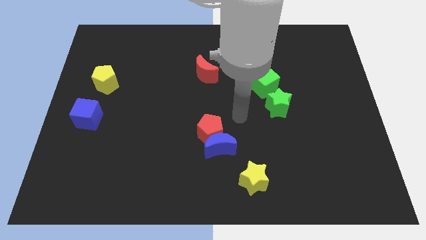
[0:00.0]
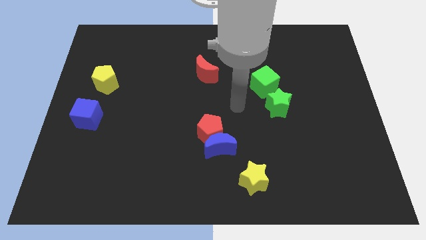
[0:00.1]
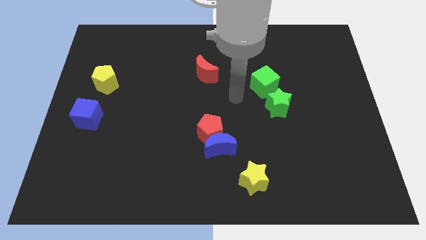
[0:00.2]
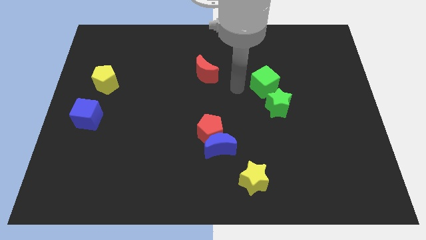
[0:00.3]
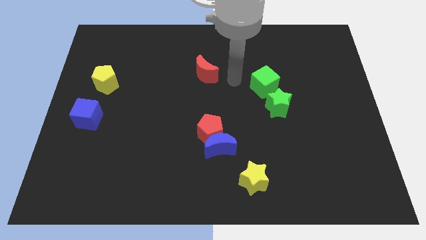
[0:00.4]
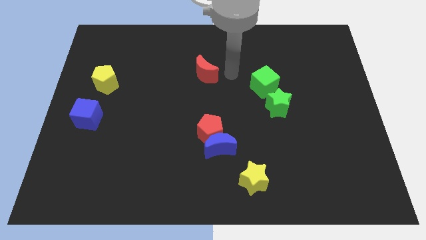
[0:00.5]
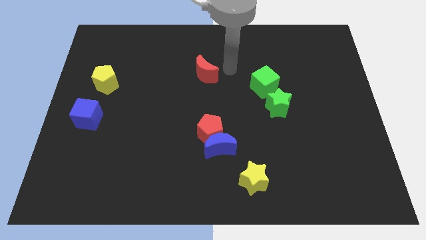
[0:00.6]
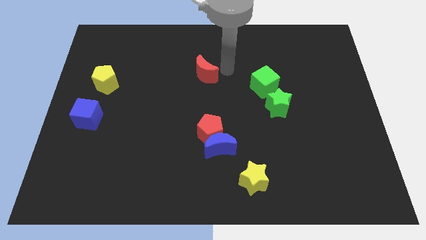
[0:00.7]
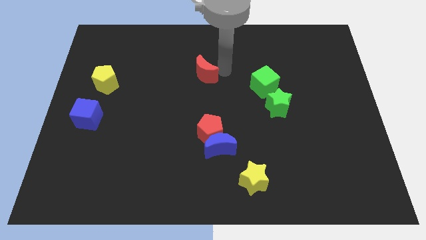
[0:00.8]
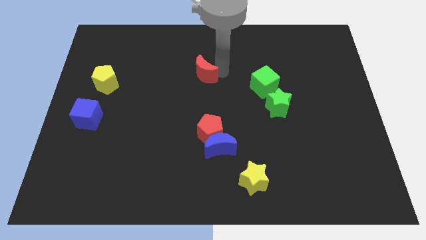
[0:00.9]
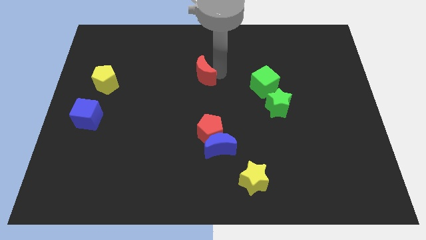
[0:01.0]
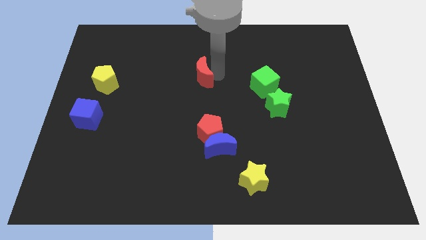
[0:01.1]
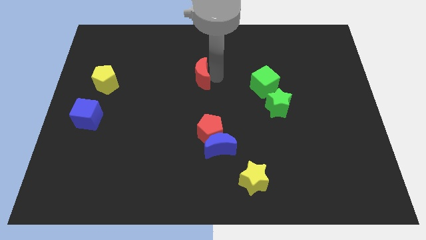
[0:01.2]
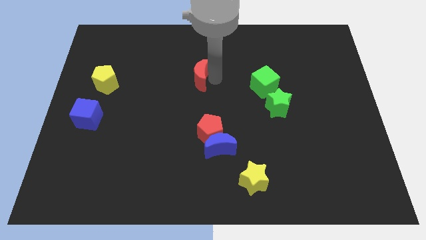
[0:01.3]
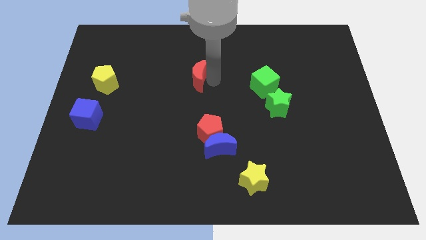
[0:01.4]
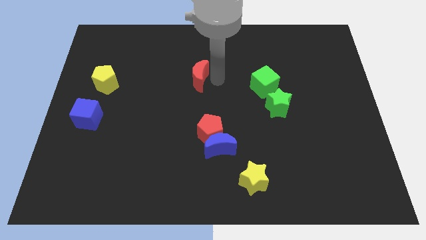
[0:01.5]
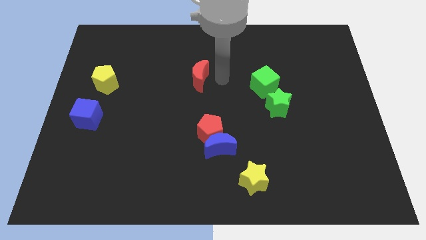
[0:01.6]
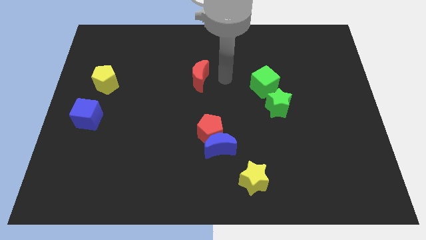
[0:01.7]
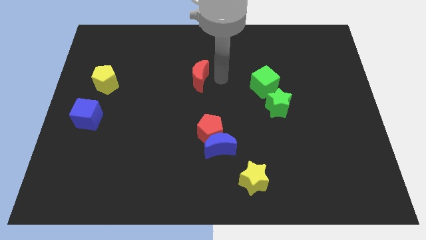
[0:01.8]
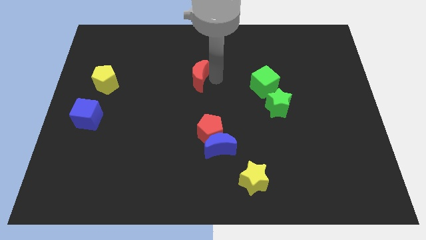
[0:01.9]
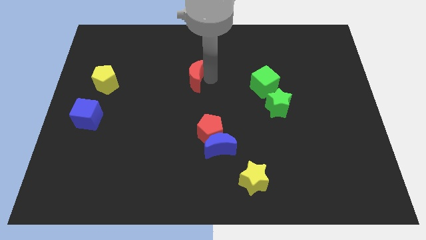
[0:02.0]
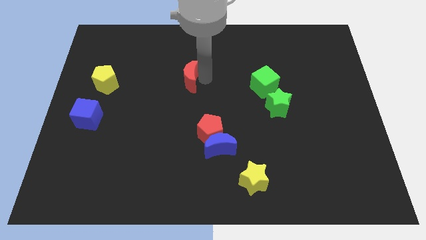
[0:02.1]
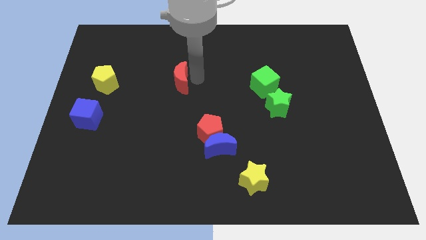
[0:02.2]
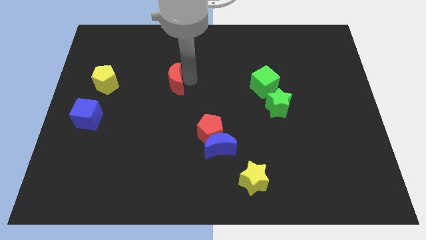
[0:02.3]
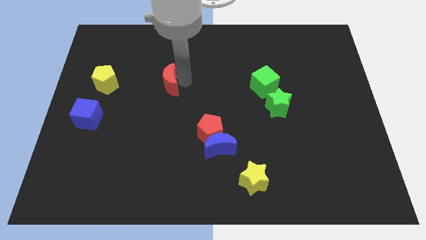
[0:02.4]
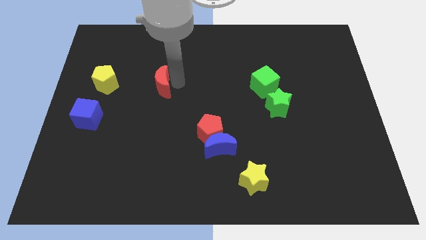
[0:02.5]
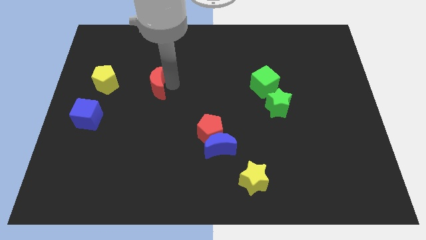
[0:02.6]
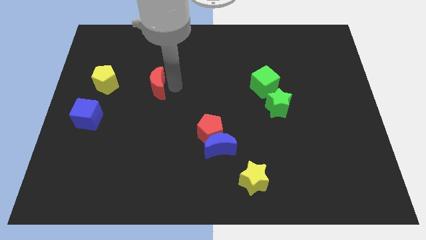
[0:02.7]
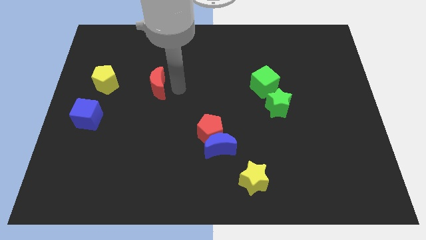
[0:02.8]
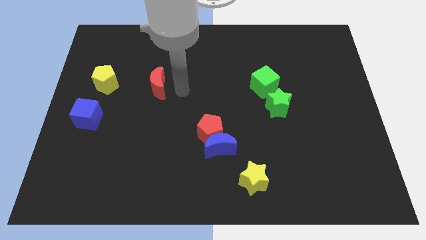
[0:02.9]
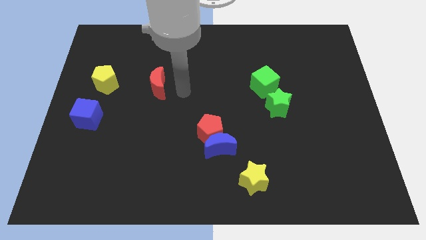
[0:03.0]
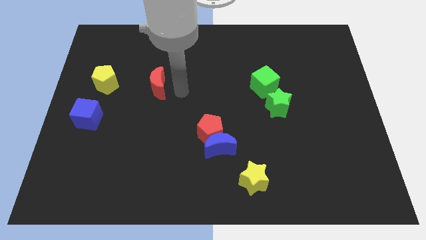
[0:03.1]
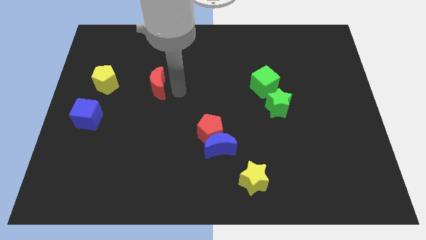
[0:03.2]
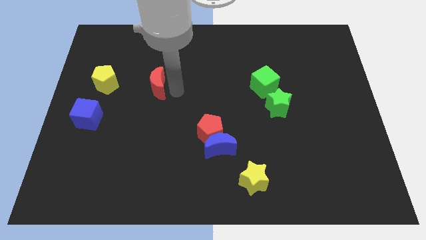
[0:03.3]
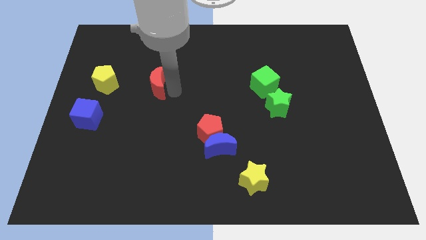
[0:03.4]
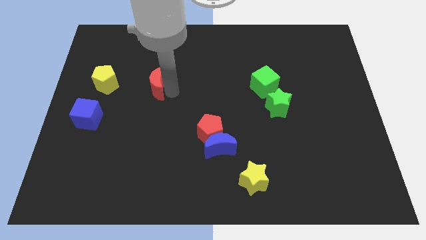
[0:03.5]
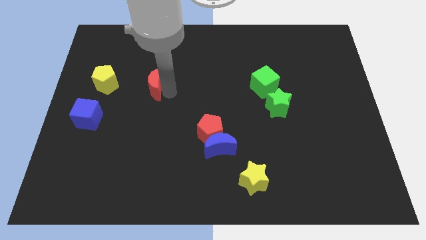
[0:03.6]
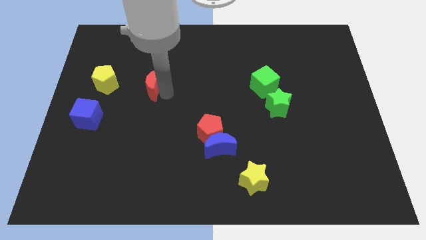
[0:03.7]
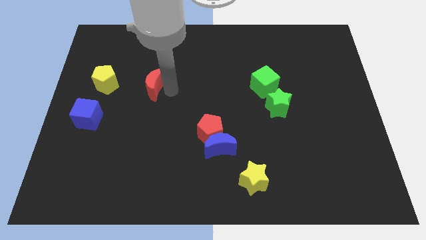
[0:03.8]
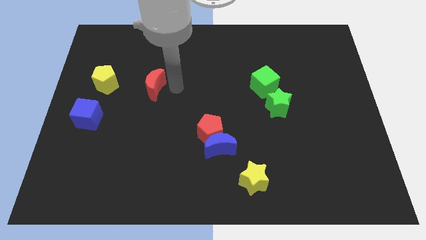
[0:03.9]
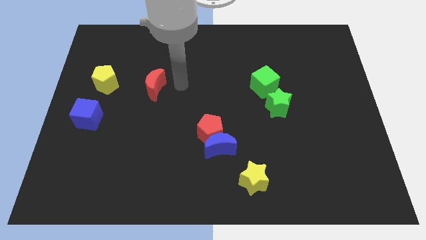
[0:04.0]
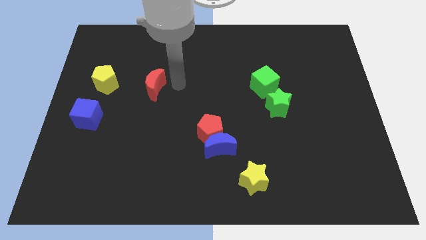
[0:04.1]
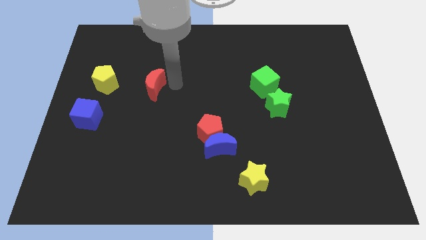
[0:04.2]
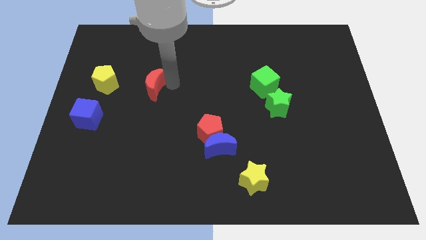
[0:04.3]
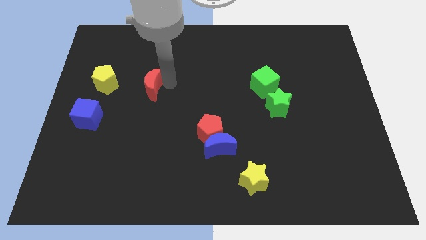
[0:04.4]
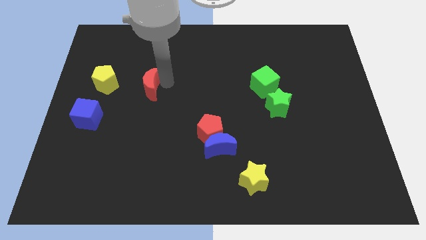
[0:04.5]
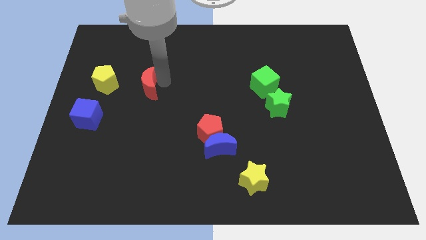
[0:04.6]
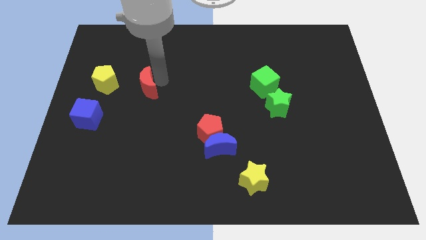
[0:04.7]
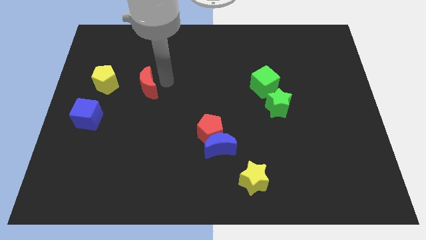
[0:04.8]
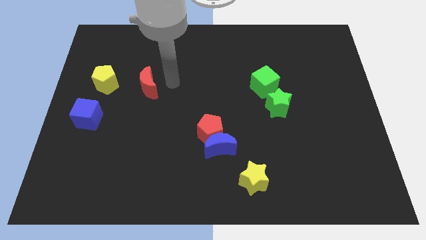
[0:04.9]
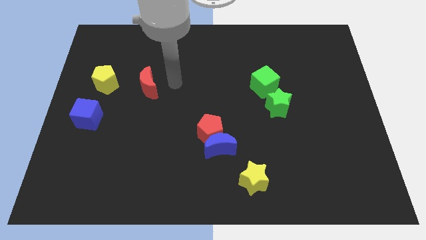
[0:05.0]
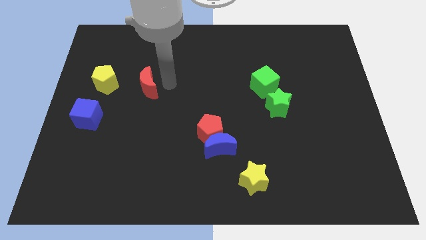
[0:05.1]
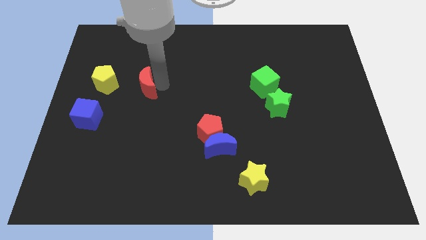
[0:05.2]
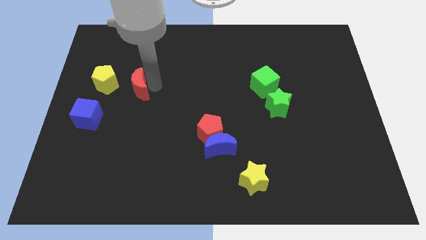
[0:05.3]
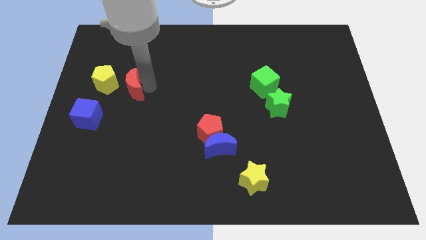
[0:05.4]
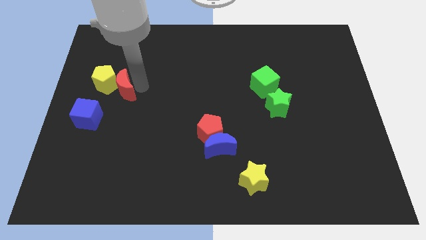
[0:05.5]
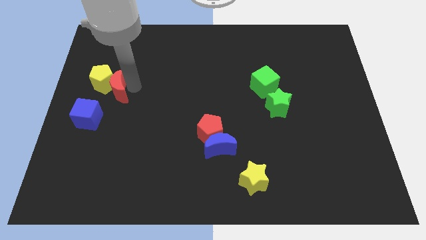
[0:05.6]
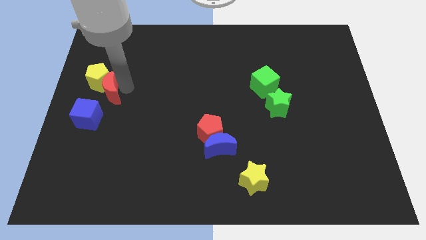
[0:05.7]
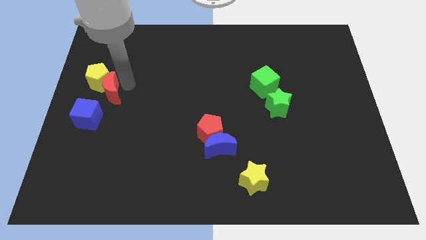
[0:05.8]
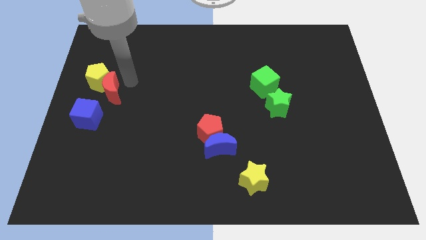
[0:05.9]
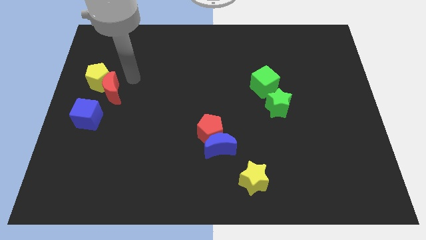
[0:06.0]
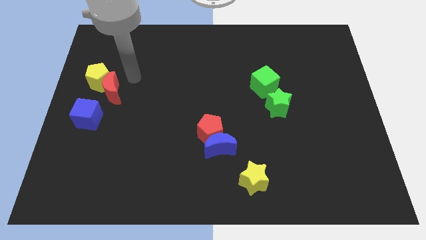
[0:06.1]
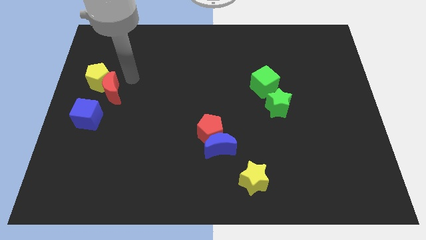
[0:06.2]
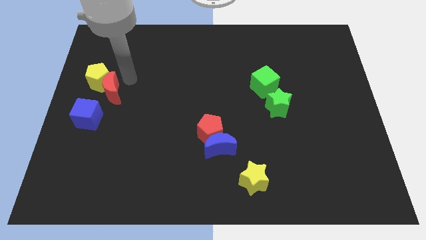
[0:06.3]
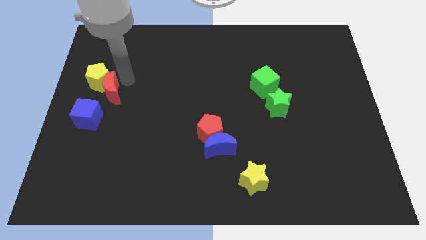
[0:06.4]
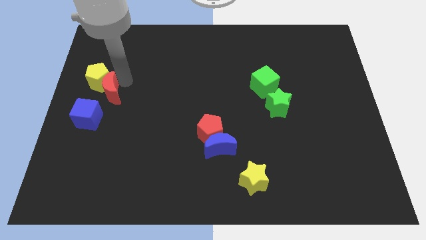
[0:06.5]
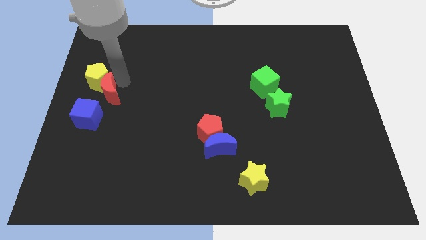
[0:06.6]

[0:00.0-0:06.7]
push the red moon to the left side
